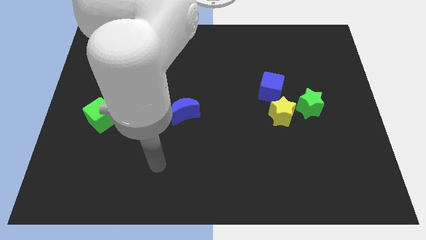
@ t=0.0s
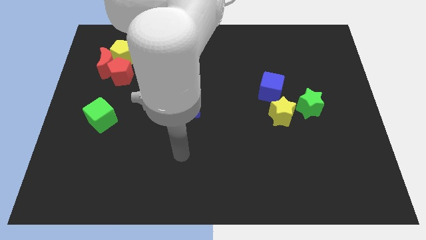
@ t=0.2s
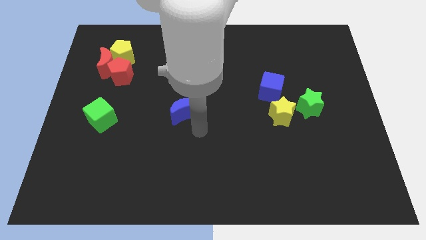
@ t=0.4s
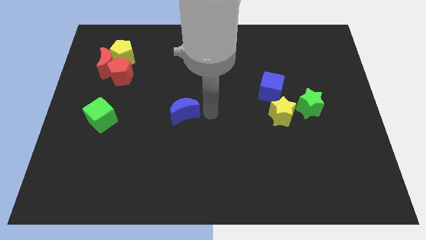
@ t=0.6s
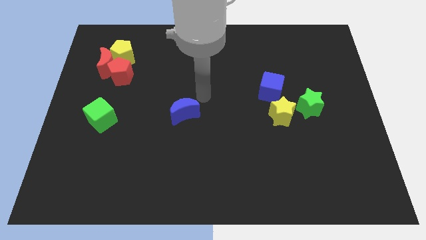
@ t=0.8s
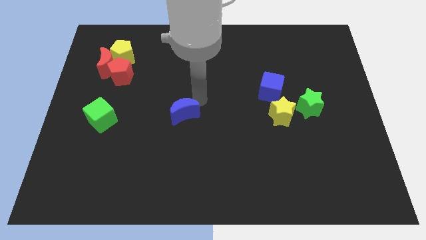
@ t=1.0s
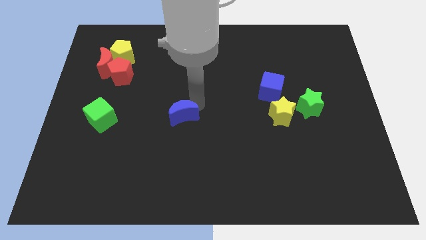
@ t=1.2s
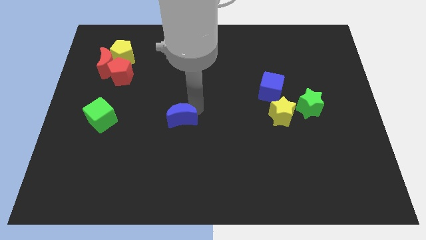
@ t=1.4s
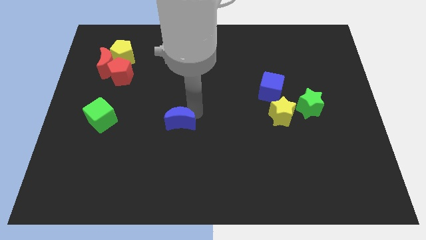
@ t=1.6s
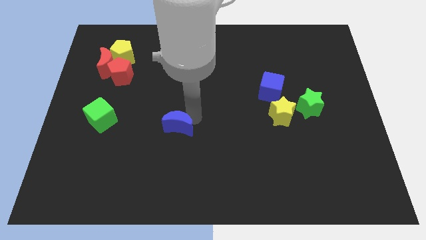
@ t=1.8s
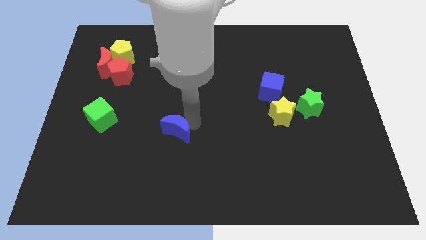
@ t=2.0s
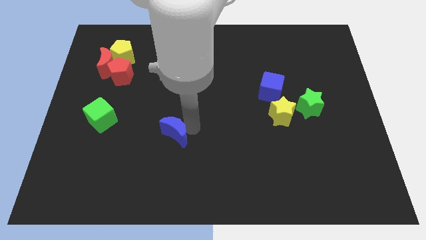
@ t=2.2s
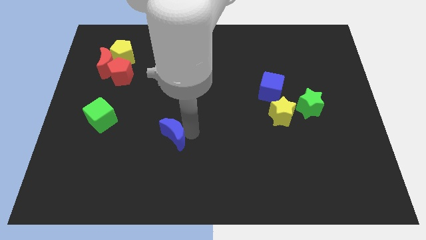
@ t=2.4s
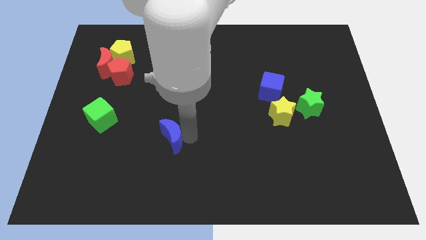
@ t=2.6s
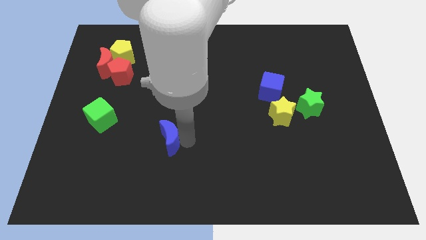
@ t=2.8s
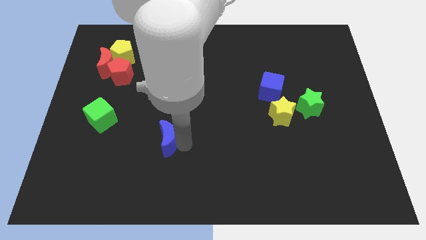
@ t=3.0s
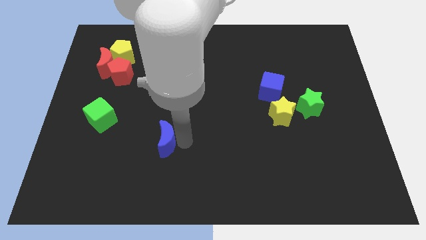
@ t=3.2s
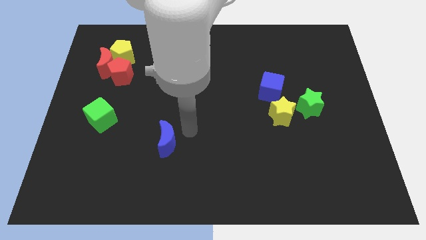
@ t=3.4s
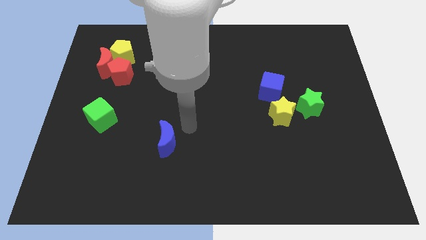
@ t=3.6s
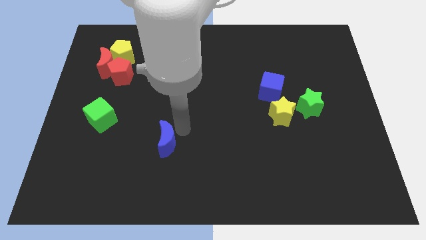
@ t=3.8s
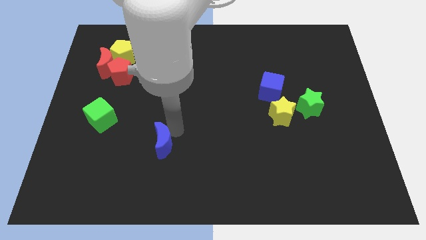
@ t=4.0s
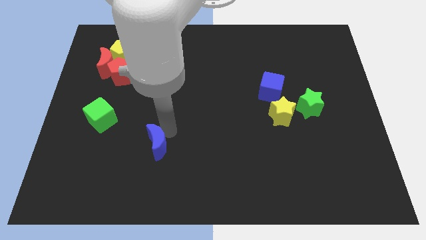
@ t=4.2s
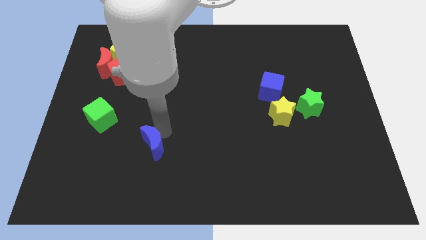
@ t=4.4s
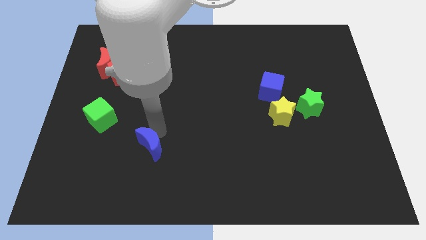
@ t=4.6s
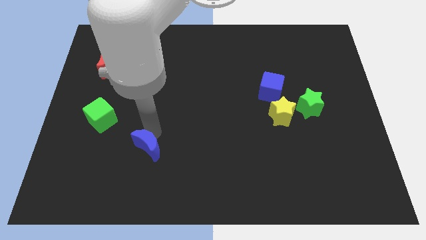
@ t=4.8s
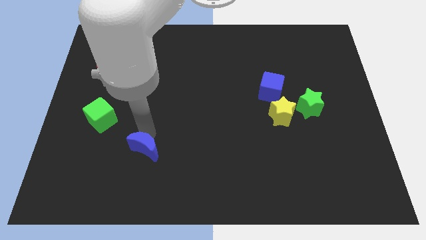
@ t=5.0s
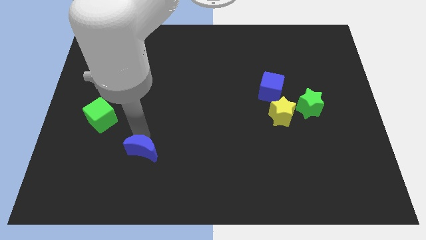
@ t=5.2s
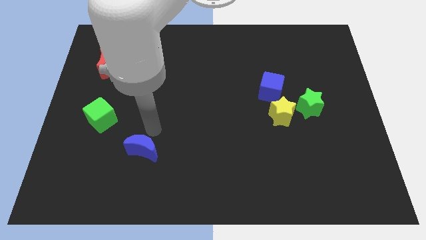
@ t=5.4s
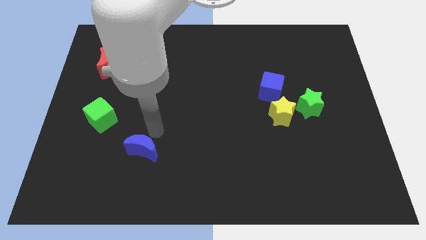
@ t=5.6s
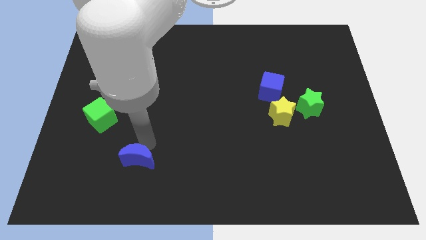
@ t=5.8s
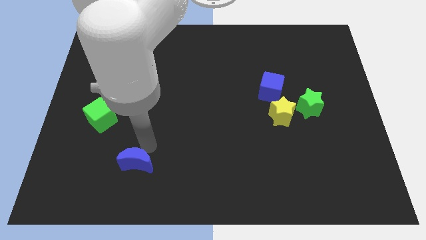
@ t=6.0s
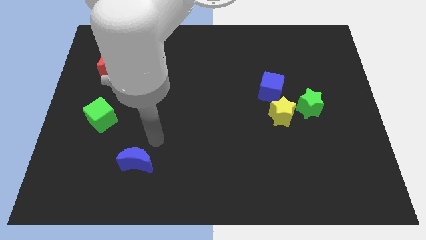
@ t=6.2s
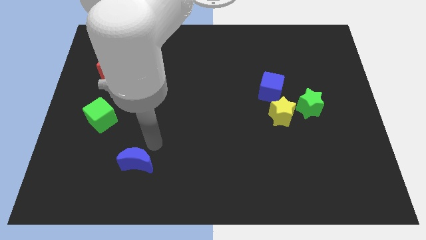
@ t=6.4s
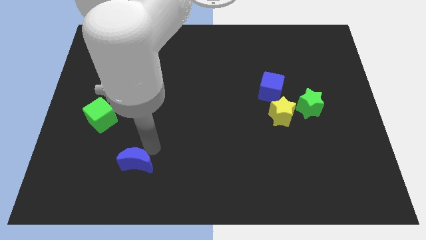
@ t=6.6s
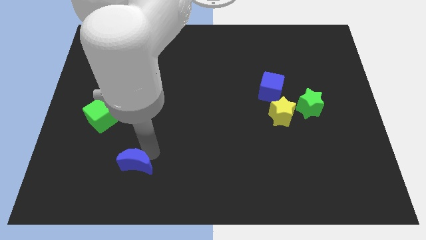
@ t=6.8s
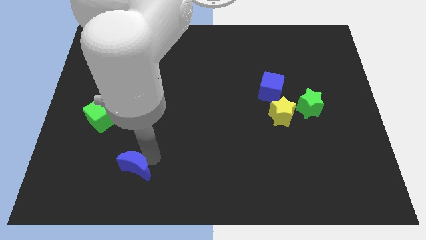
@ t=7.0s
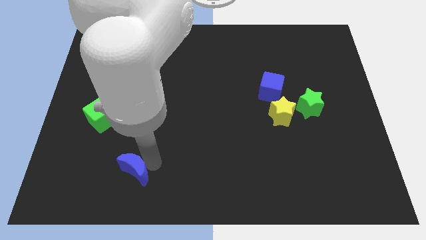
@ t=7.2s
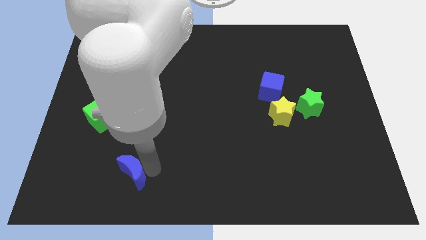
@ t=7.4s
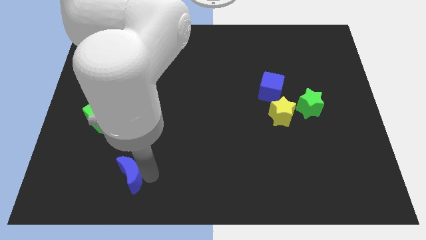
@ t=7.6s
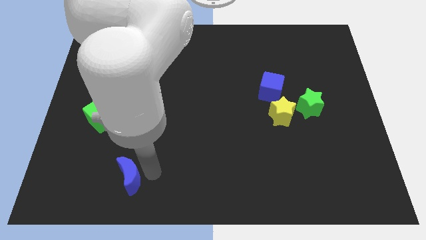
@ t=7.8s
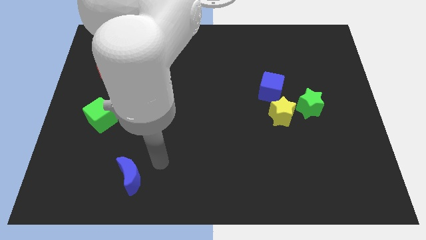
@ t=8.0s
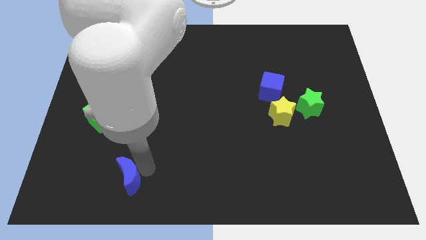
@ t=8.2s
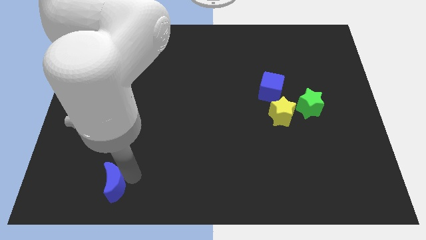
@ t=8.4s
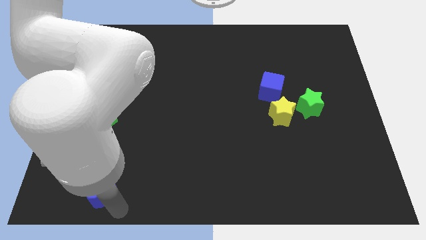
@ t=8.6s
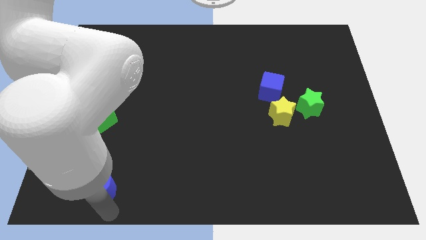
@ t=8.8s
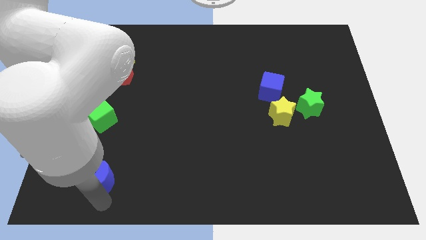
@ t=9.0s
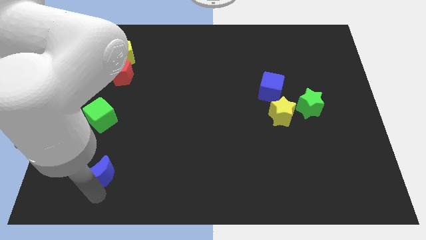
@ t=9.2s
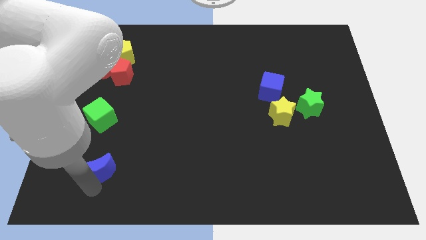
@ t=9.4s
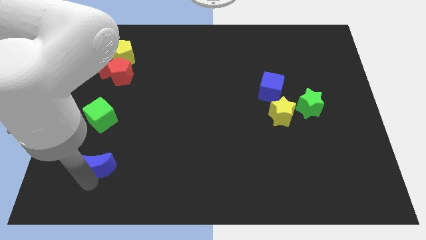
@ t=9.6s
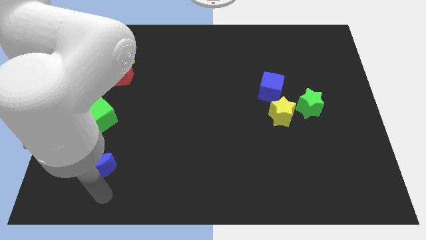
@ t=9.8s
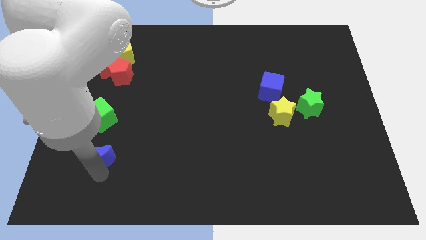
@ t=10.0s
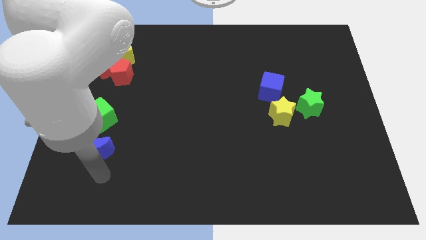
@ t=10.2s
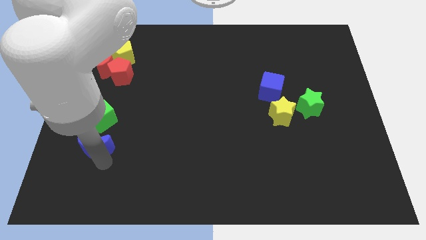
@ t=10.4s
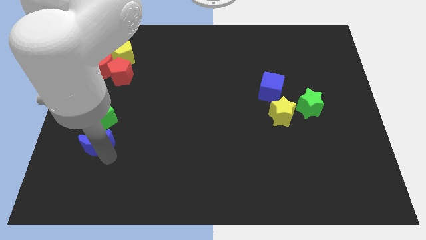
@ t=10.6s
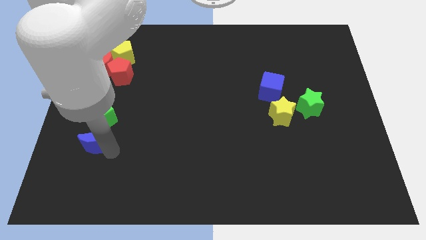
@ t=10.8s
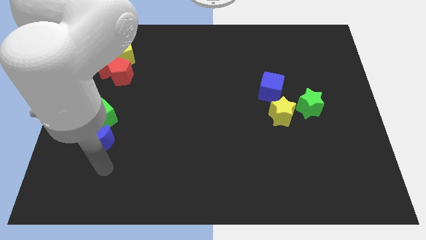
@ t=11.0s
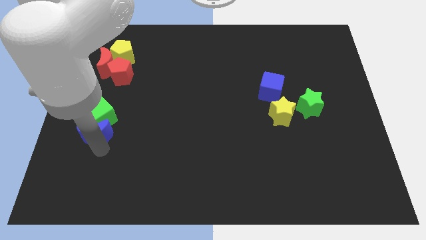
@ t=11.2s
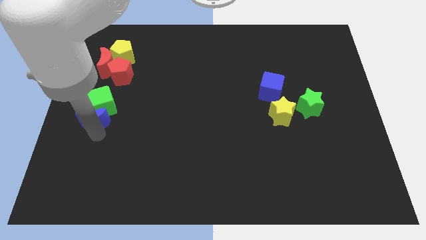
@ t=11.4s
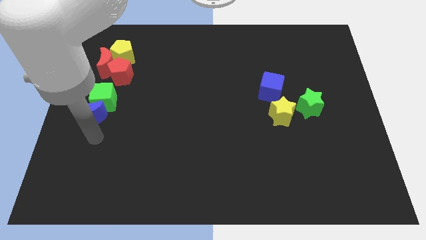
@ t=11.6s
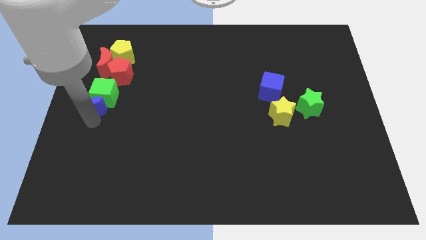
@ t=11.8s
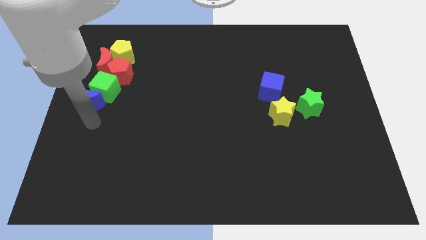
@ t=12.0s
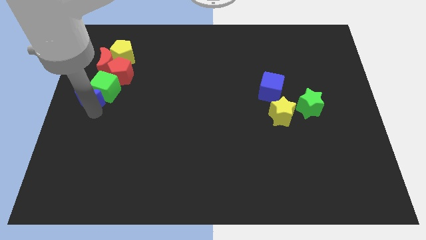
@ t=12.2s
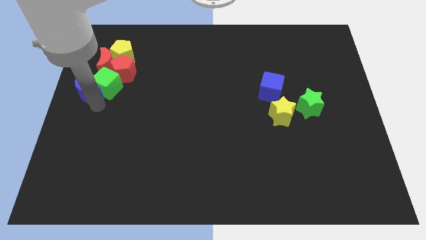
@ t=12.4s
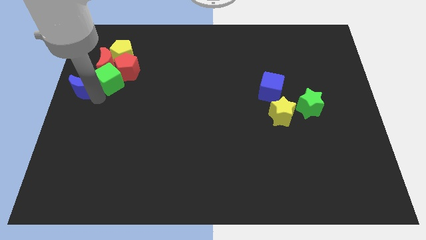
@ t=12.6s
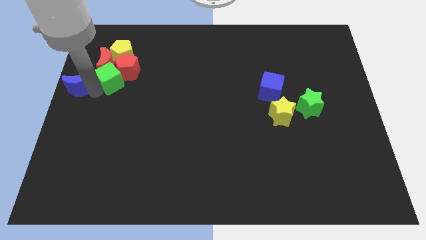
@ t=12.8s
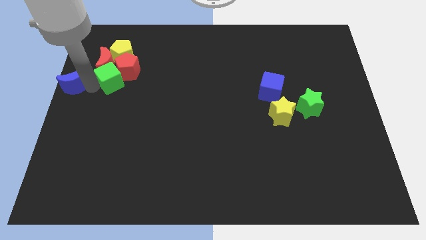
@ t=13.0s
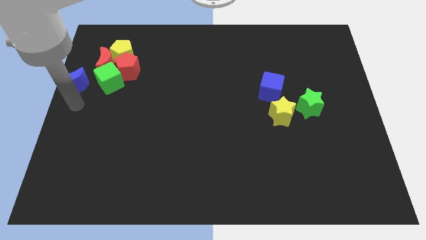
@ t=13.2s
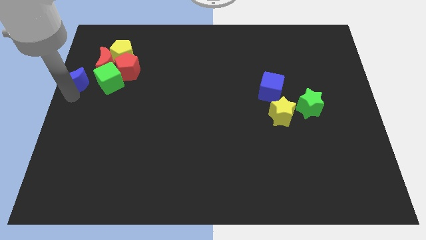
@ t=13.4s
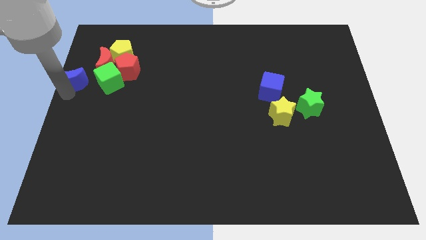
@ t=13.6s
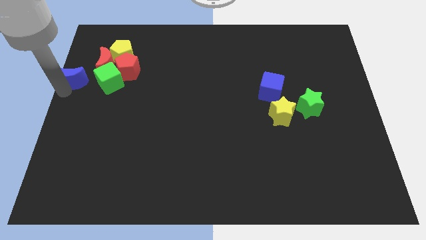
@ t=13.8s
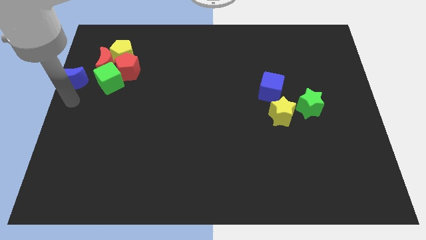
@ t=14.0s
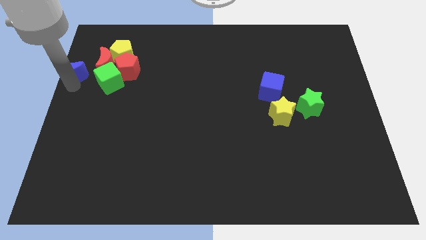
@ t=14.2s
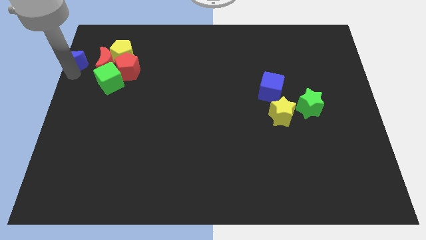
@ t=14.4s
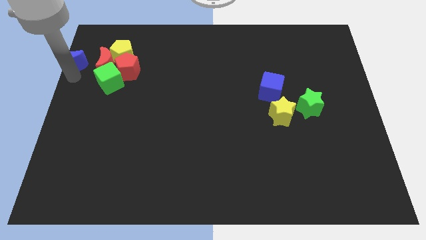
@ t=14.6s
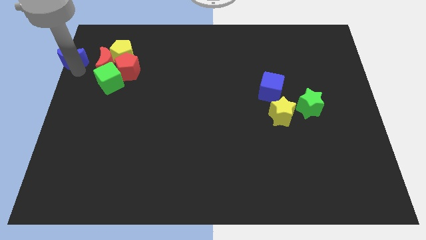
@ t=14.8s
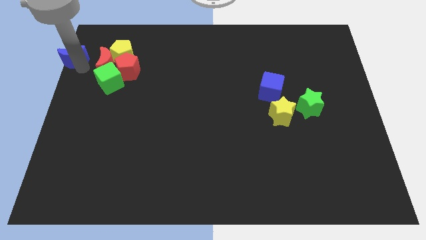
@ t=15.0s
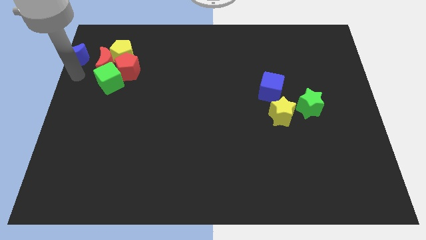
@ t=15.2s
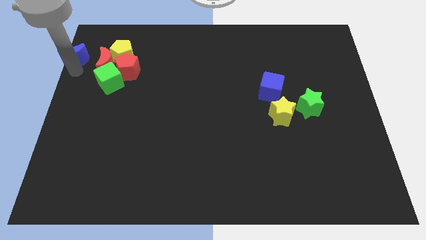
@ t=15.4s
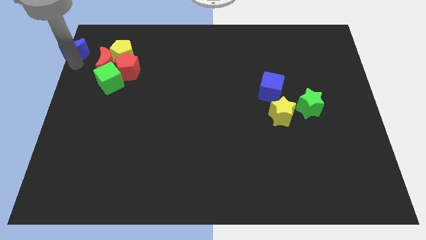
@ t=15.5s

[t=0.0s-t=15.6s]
move the blue moon to the upper left corner
